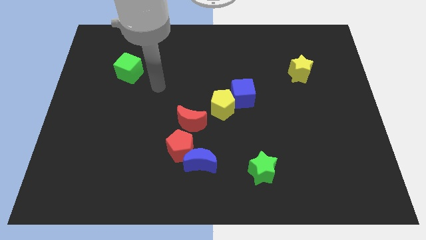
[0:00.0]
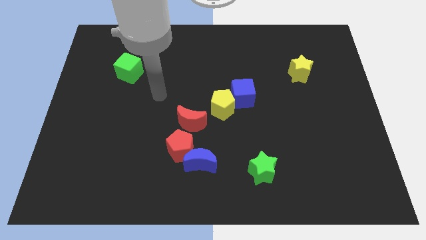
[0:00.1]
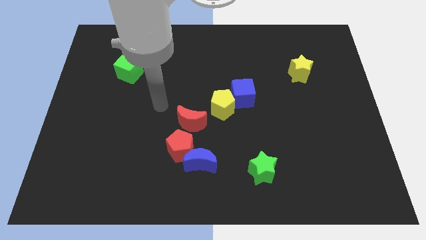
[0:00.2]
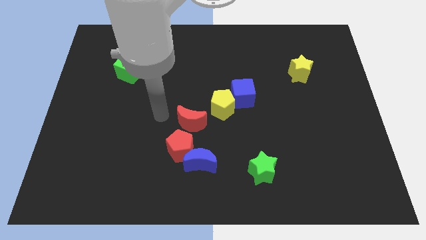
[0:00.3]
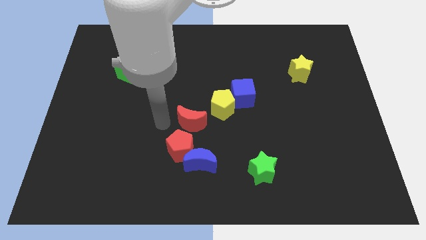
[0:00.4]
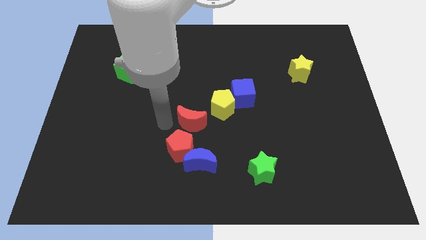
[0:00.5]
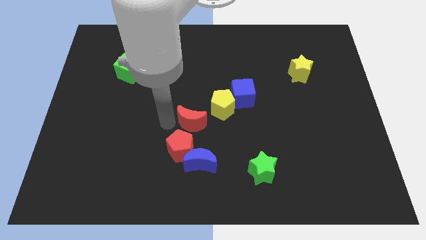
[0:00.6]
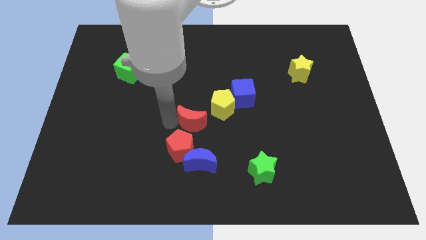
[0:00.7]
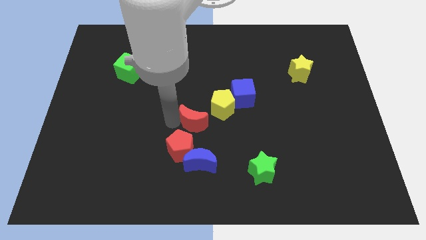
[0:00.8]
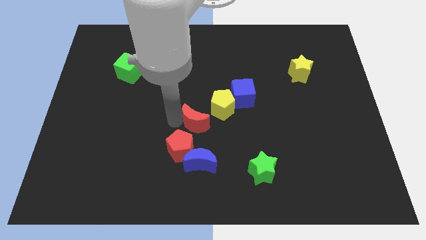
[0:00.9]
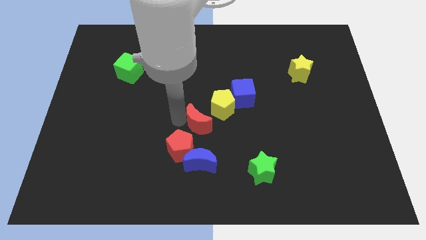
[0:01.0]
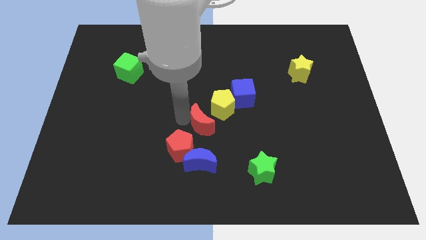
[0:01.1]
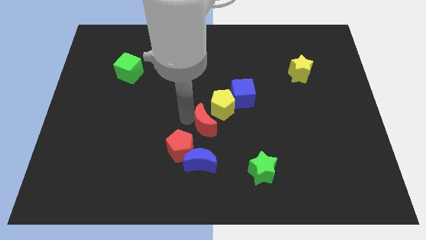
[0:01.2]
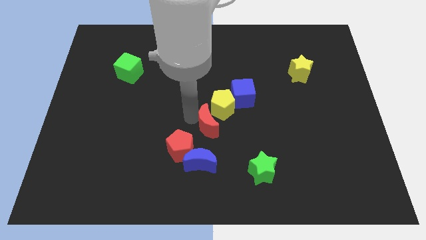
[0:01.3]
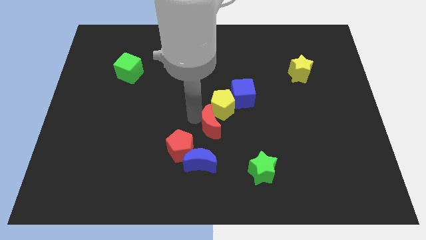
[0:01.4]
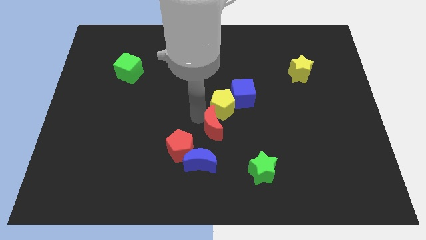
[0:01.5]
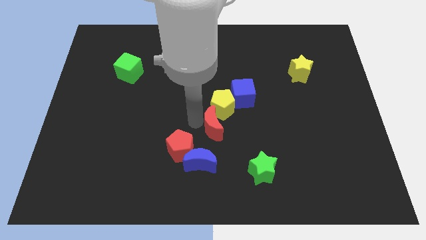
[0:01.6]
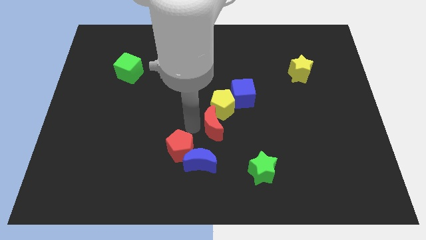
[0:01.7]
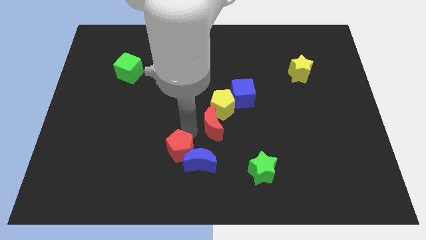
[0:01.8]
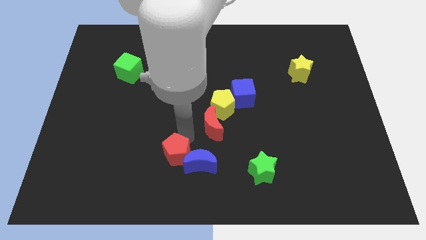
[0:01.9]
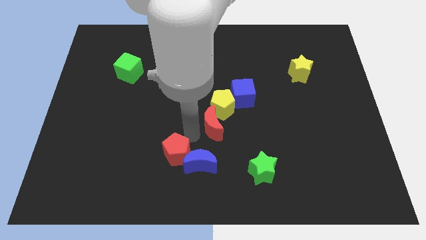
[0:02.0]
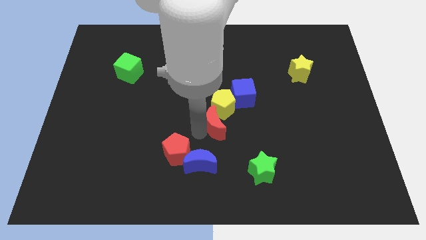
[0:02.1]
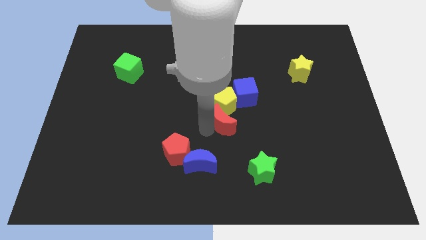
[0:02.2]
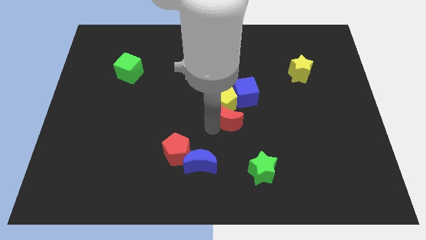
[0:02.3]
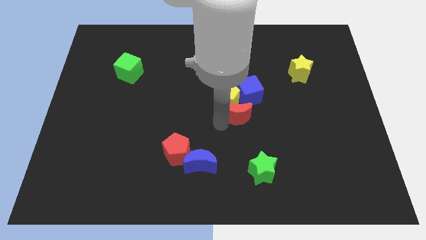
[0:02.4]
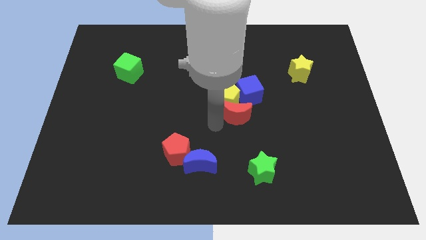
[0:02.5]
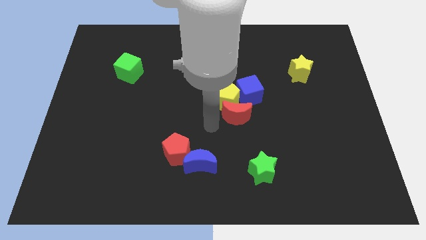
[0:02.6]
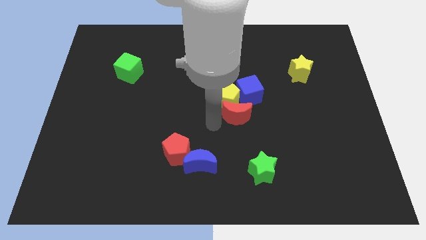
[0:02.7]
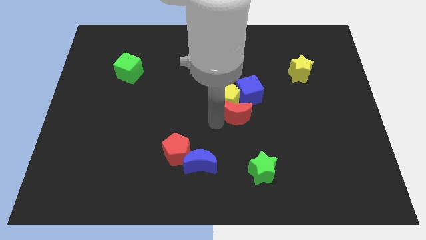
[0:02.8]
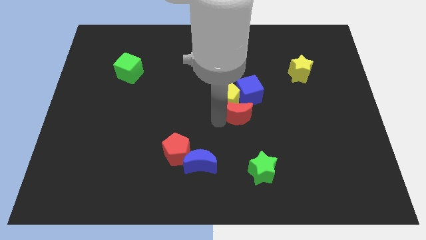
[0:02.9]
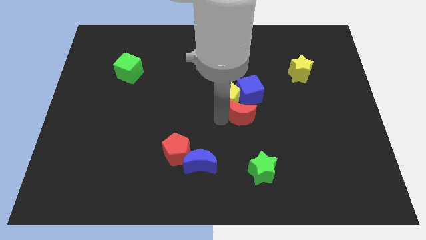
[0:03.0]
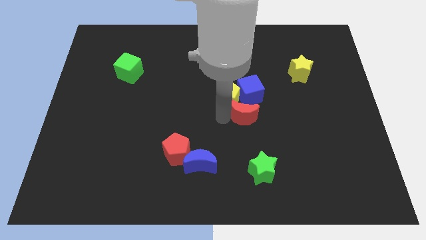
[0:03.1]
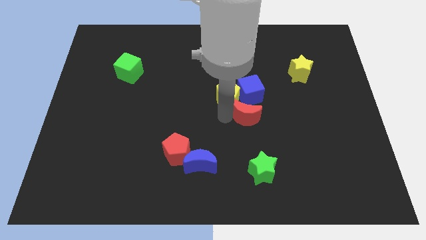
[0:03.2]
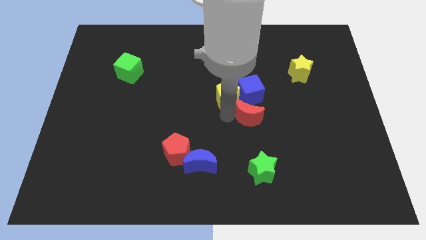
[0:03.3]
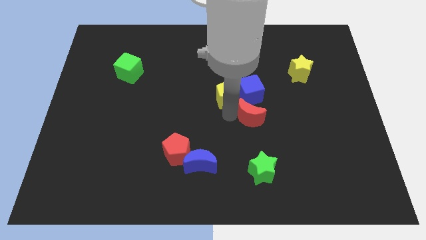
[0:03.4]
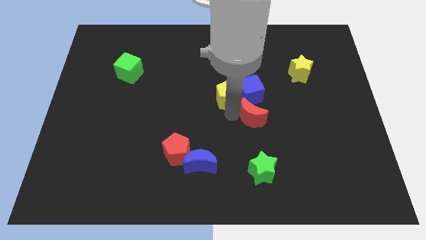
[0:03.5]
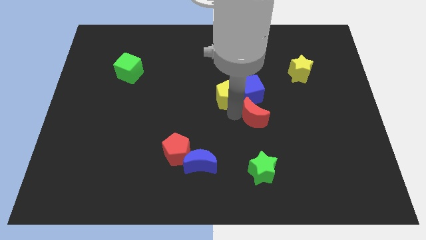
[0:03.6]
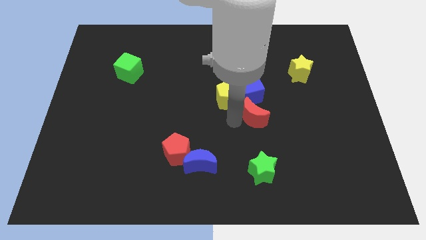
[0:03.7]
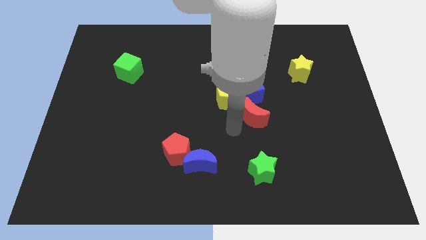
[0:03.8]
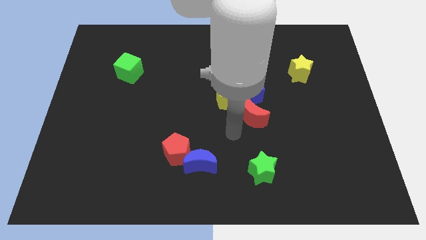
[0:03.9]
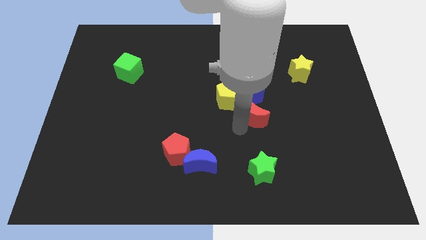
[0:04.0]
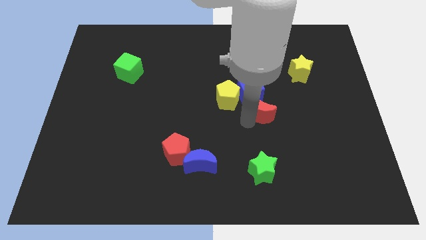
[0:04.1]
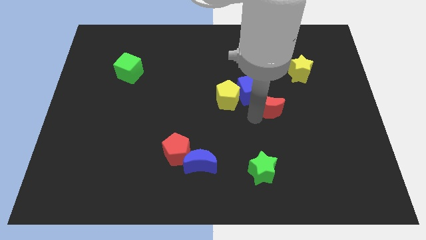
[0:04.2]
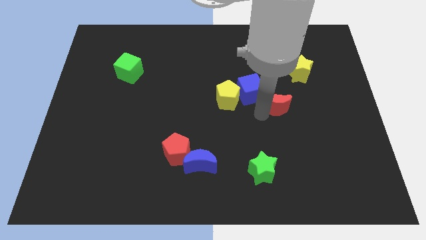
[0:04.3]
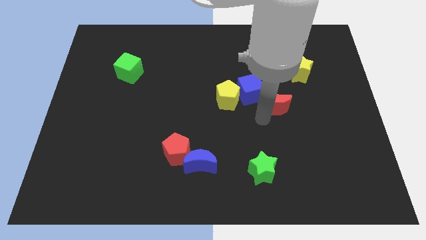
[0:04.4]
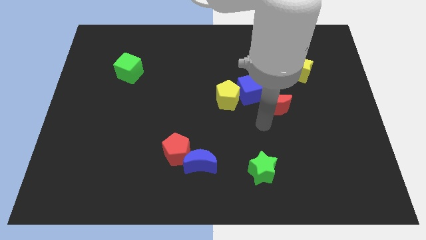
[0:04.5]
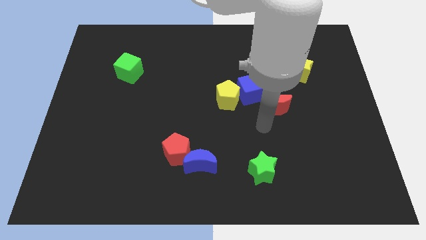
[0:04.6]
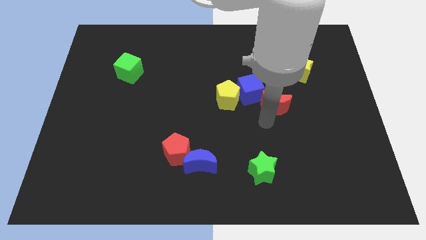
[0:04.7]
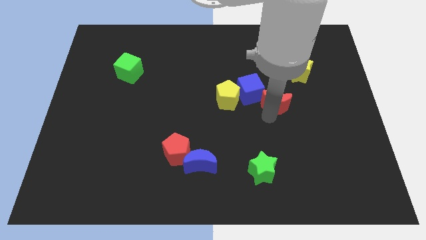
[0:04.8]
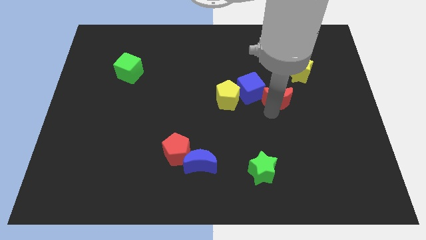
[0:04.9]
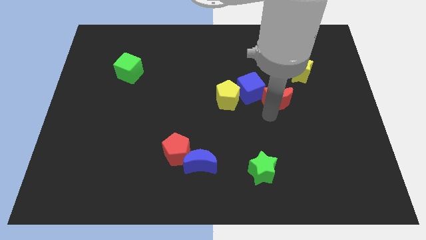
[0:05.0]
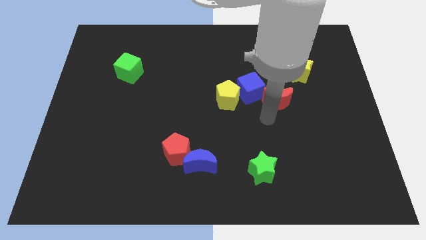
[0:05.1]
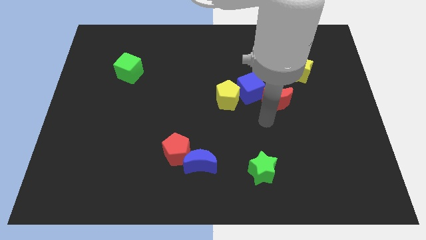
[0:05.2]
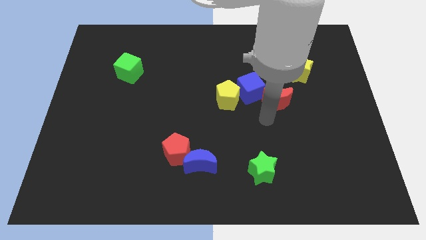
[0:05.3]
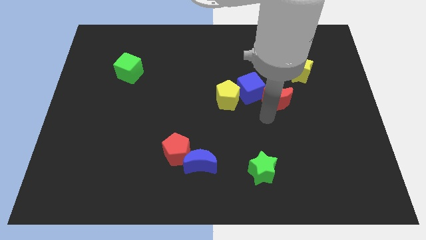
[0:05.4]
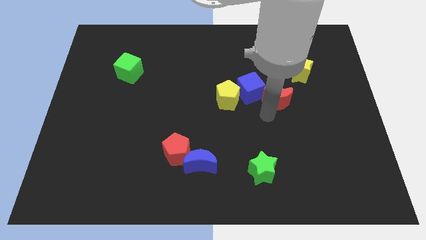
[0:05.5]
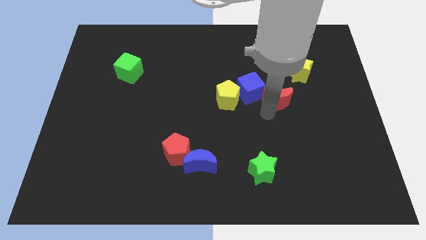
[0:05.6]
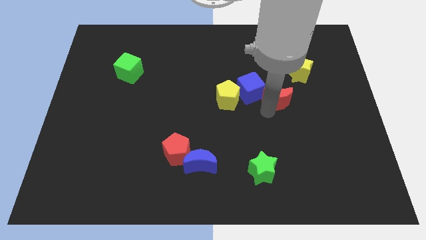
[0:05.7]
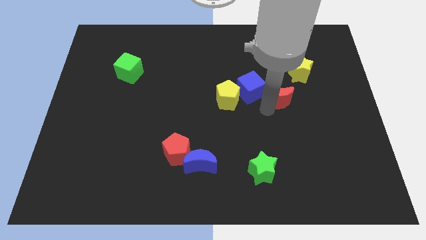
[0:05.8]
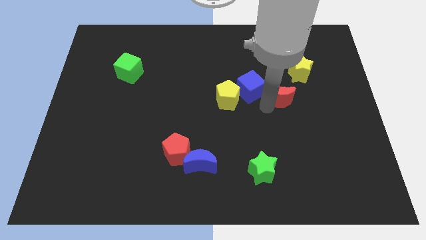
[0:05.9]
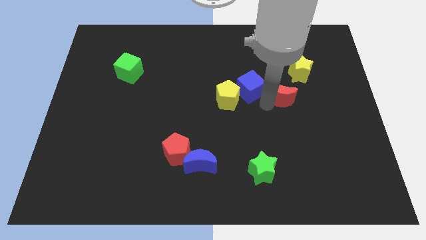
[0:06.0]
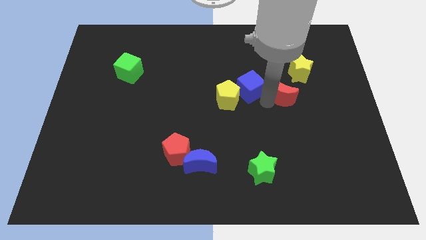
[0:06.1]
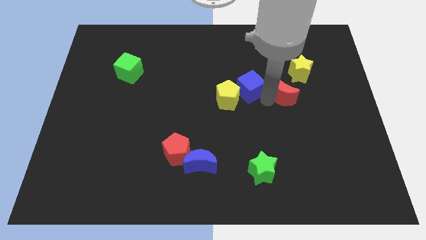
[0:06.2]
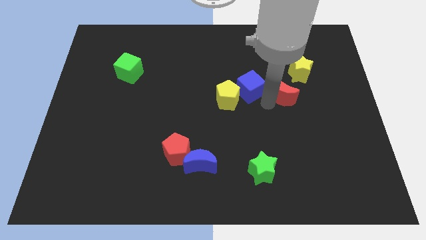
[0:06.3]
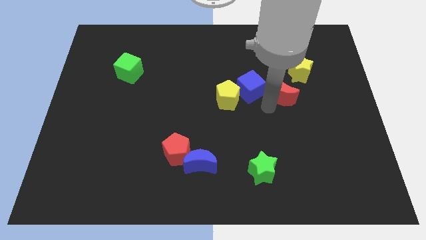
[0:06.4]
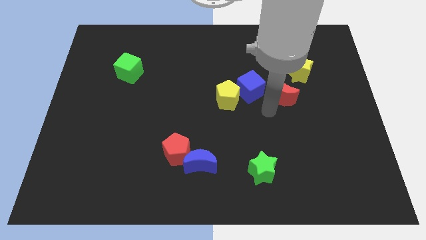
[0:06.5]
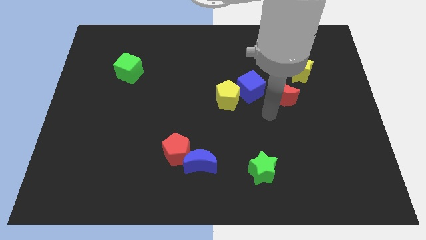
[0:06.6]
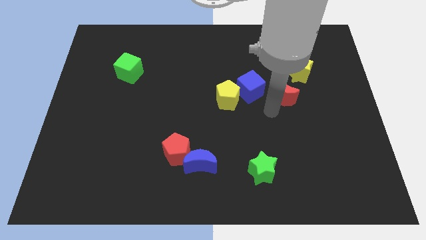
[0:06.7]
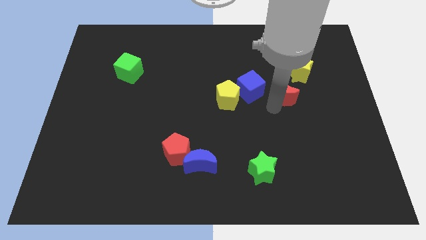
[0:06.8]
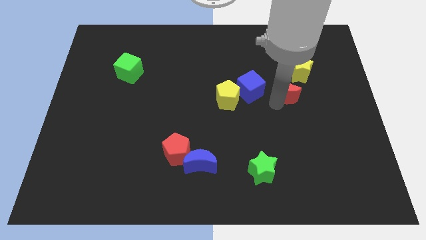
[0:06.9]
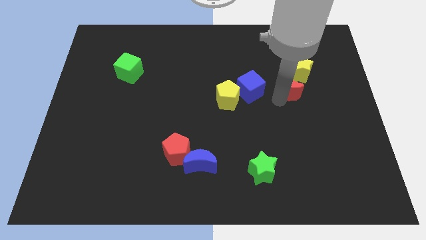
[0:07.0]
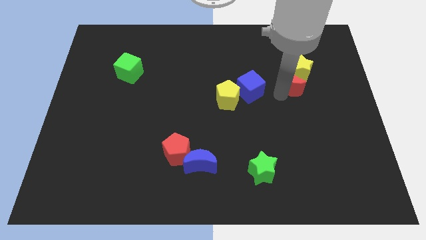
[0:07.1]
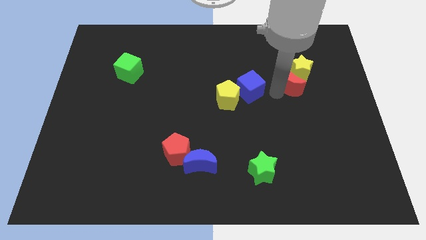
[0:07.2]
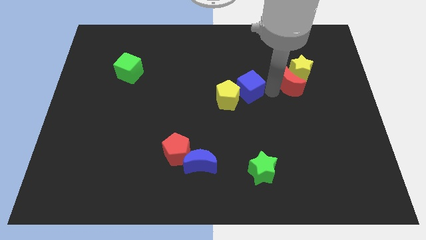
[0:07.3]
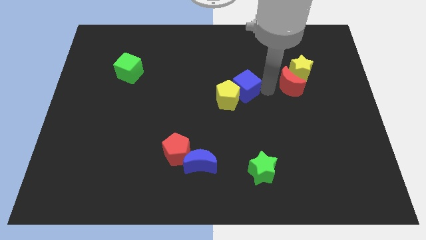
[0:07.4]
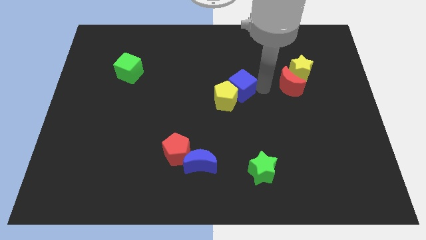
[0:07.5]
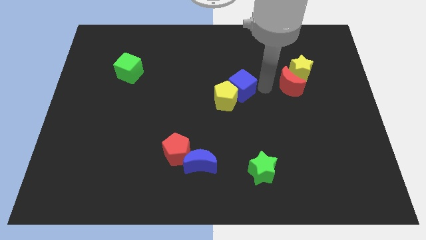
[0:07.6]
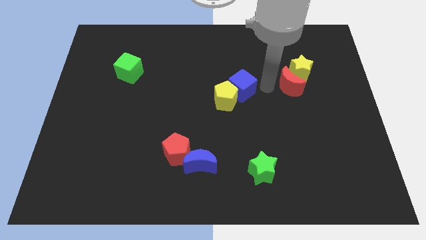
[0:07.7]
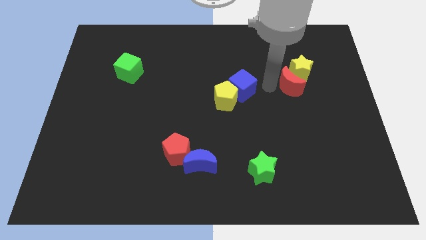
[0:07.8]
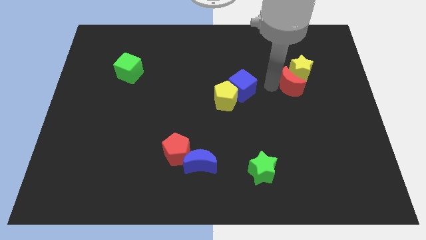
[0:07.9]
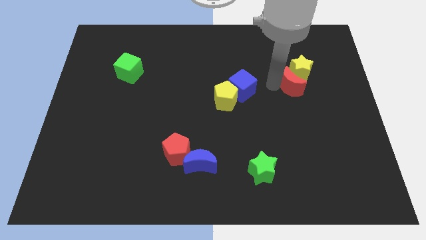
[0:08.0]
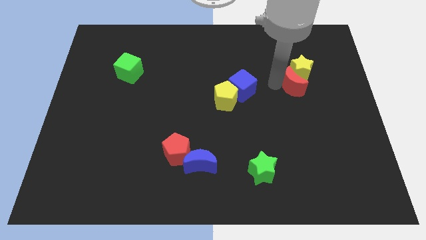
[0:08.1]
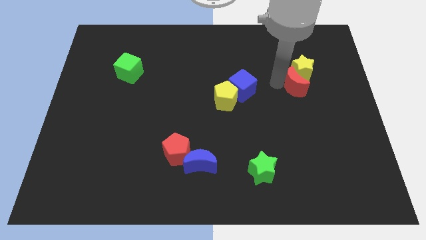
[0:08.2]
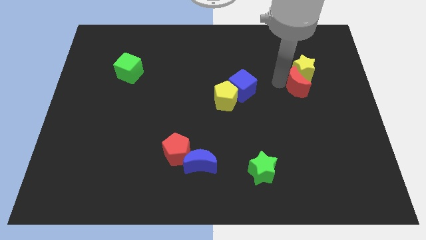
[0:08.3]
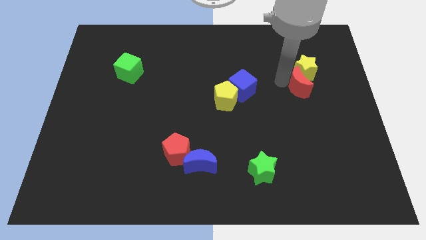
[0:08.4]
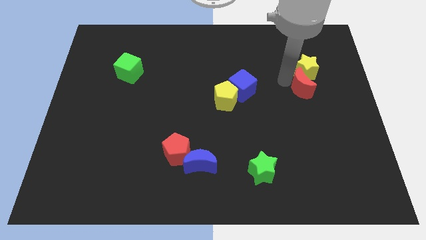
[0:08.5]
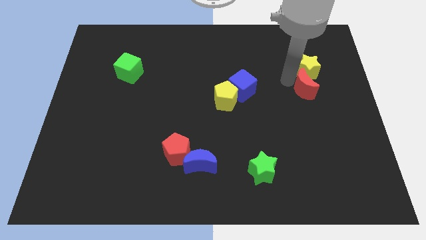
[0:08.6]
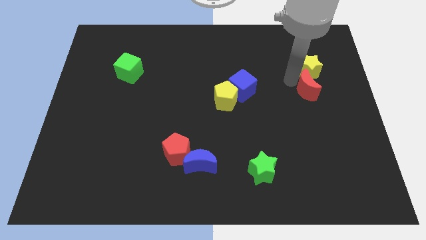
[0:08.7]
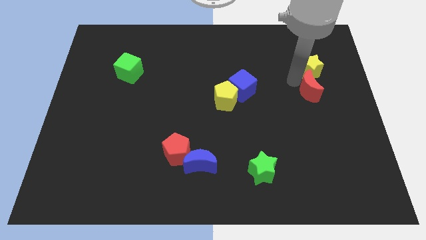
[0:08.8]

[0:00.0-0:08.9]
put the red moon to the bottom right side of the yellow star
